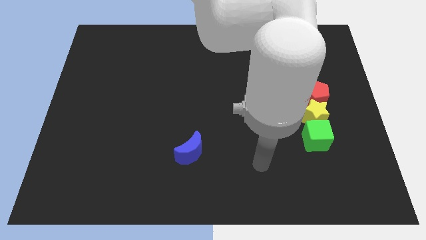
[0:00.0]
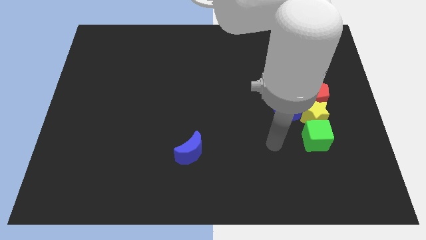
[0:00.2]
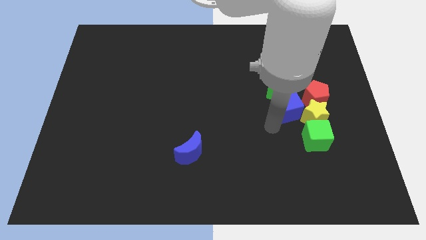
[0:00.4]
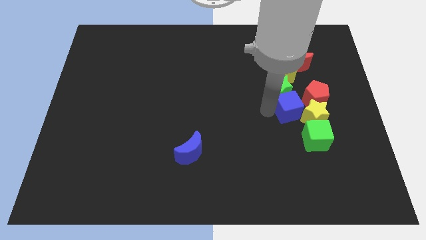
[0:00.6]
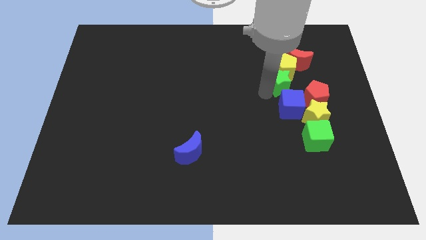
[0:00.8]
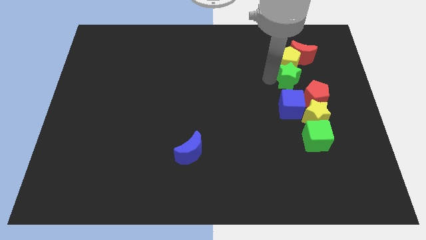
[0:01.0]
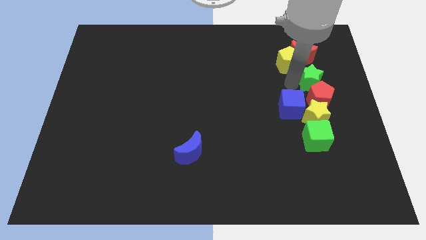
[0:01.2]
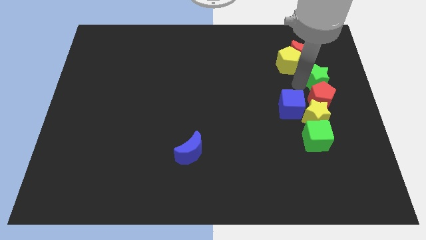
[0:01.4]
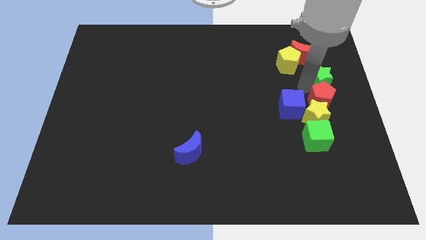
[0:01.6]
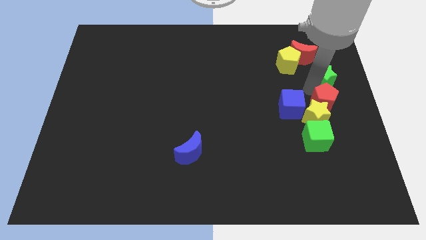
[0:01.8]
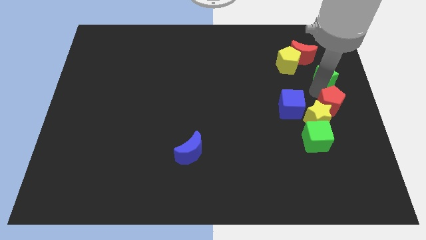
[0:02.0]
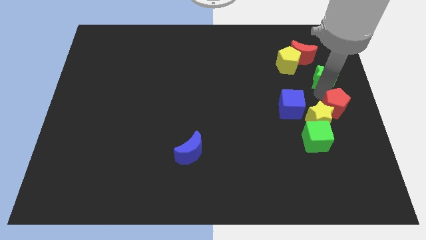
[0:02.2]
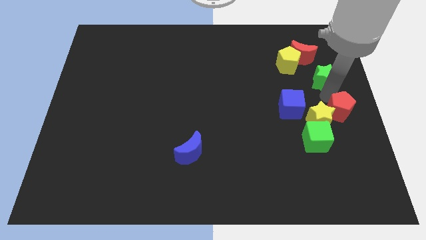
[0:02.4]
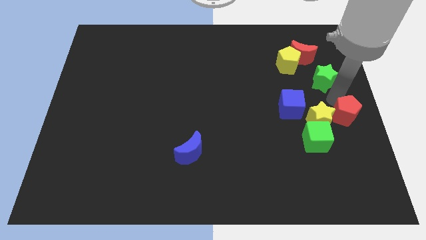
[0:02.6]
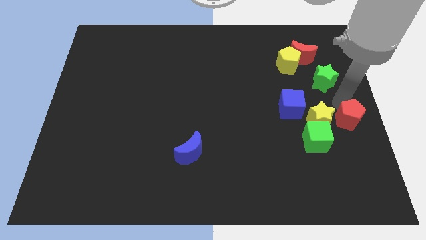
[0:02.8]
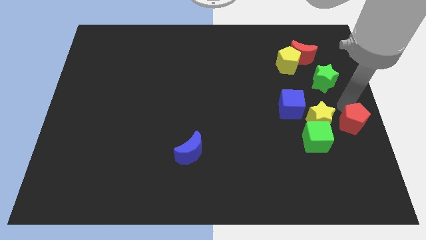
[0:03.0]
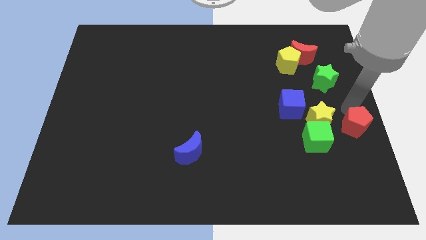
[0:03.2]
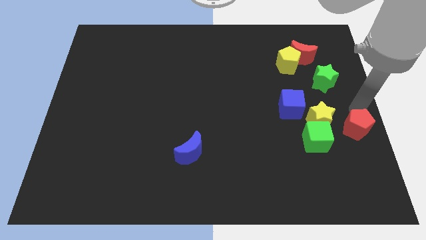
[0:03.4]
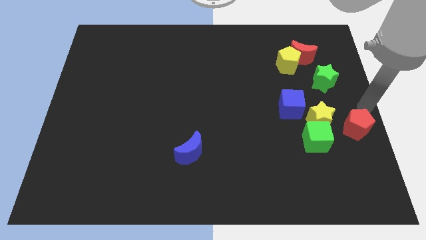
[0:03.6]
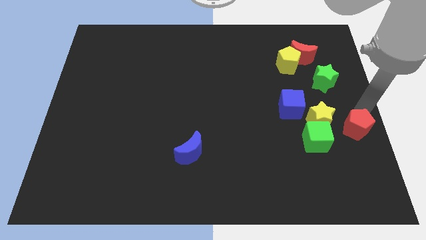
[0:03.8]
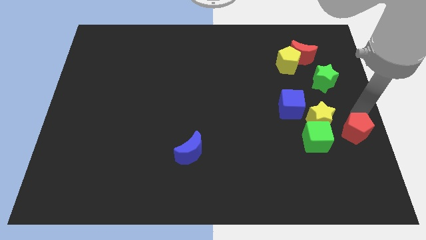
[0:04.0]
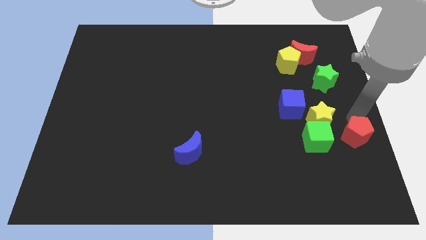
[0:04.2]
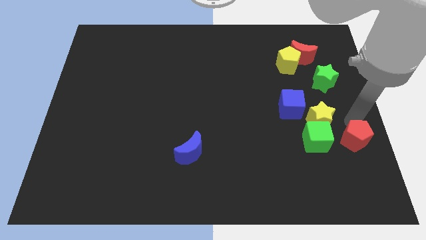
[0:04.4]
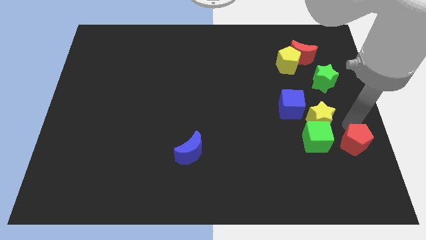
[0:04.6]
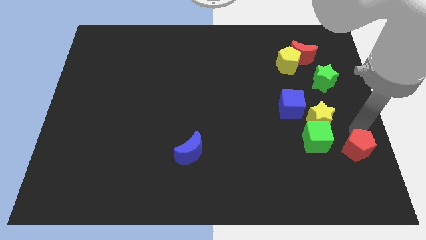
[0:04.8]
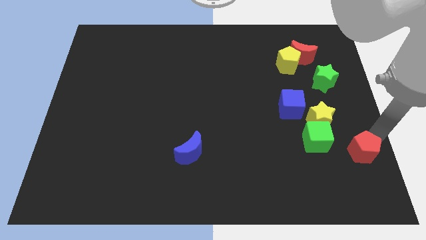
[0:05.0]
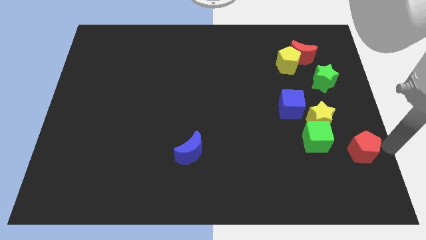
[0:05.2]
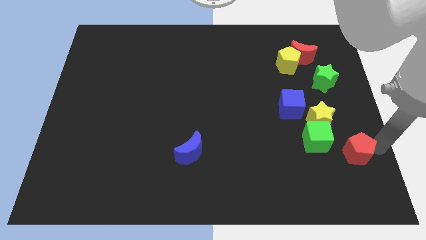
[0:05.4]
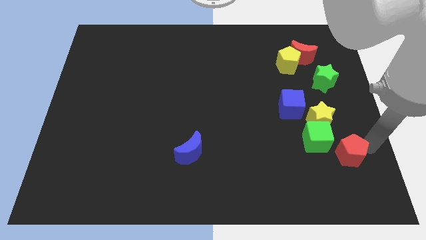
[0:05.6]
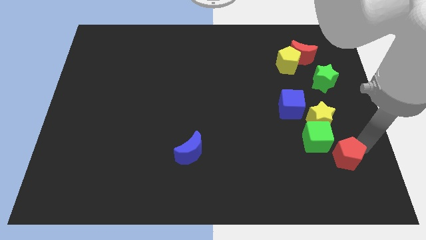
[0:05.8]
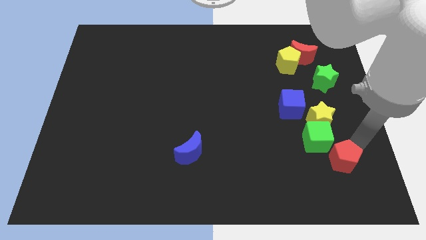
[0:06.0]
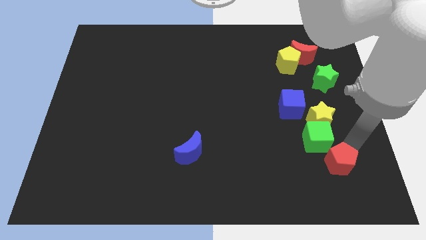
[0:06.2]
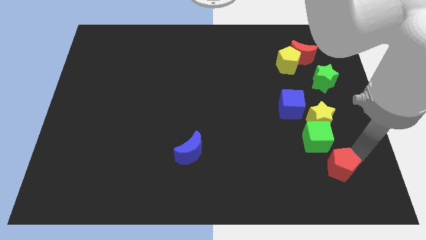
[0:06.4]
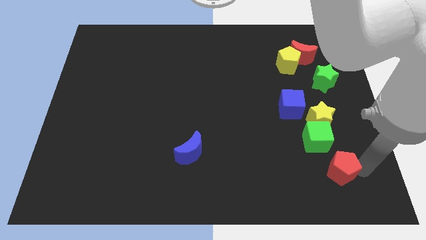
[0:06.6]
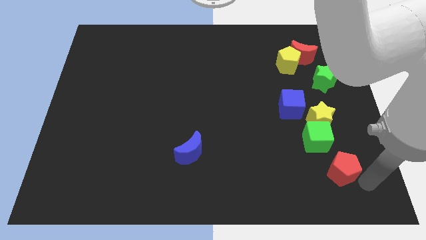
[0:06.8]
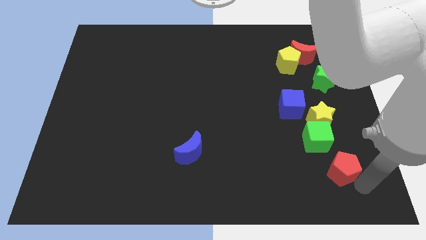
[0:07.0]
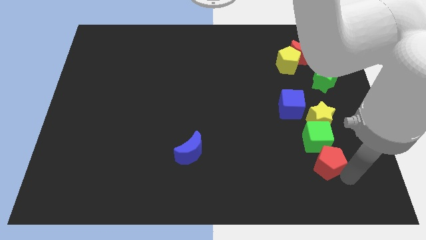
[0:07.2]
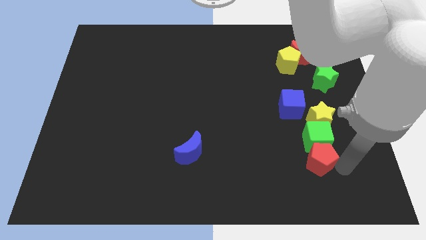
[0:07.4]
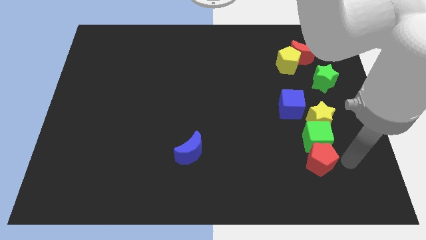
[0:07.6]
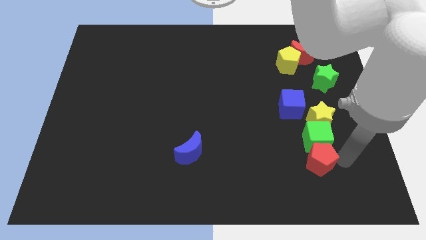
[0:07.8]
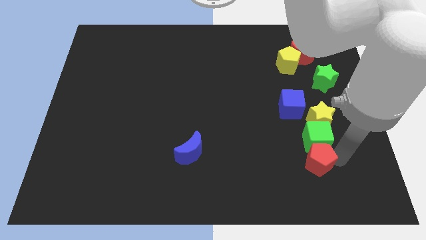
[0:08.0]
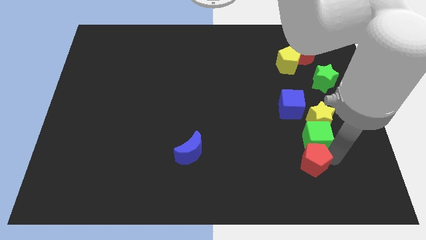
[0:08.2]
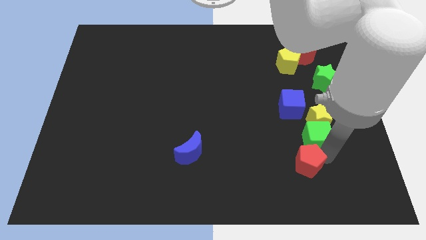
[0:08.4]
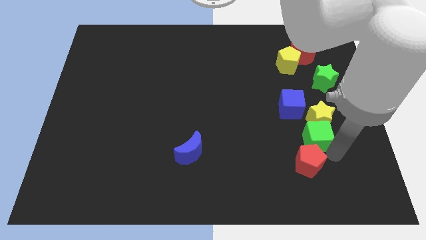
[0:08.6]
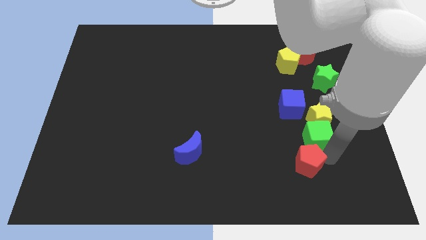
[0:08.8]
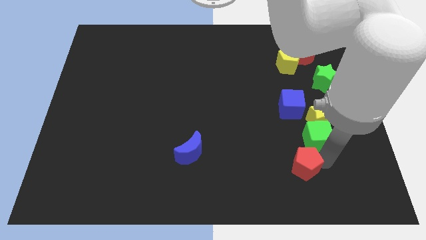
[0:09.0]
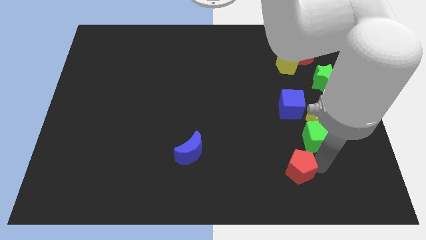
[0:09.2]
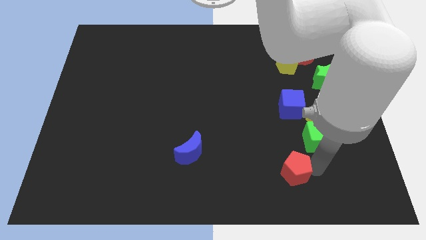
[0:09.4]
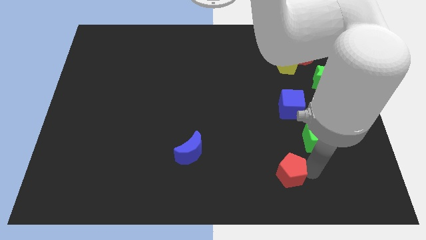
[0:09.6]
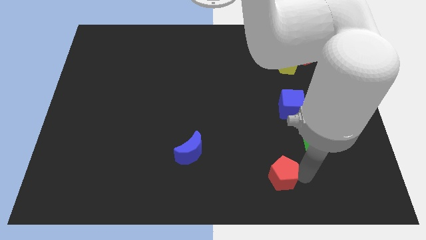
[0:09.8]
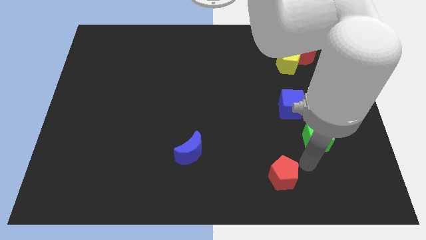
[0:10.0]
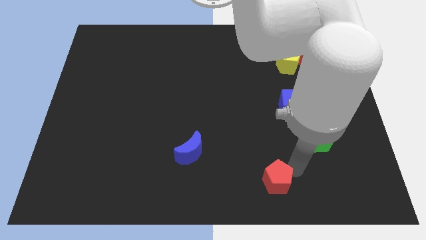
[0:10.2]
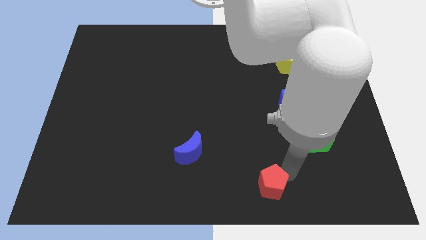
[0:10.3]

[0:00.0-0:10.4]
move the red pentagon to the bottom side
